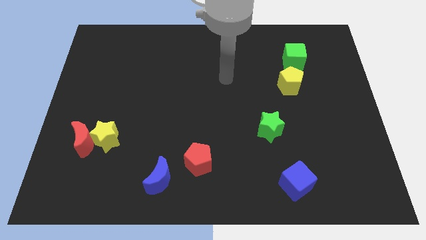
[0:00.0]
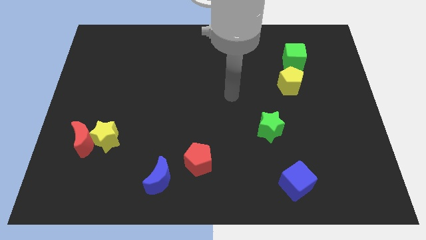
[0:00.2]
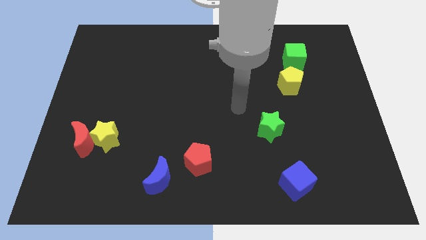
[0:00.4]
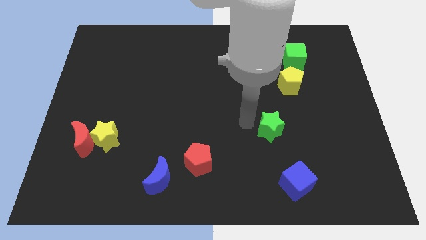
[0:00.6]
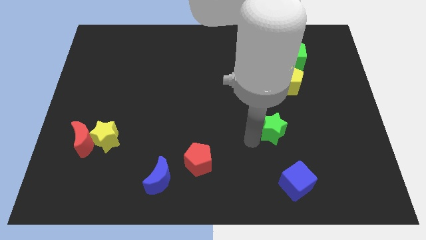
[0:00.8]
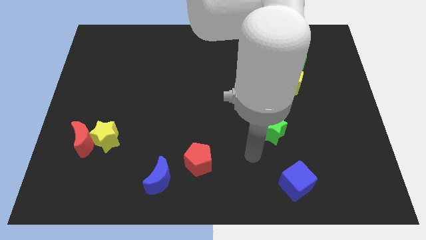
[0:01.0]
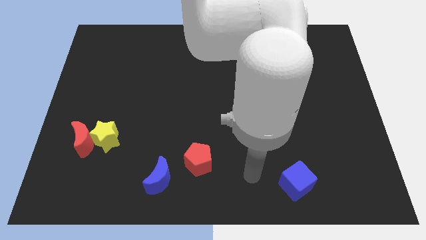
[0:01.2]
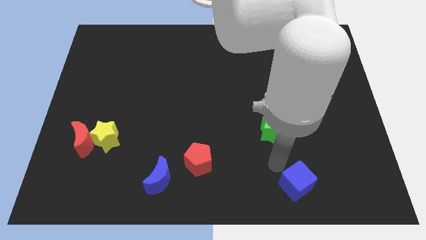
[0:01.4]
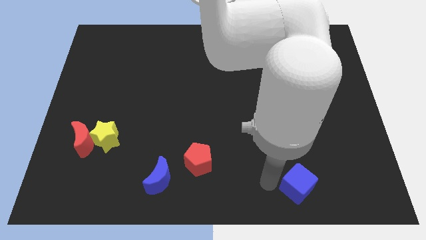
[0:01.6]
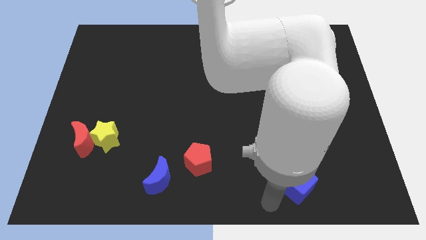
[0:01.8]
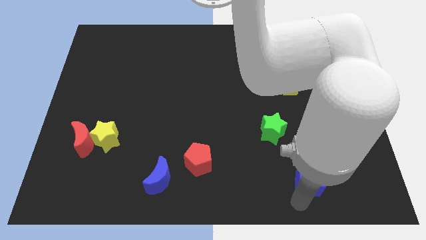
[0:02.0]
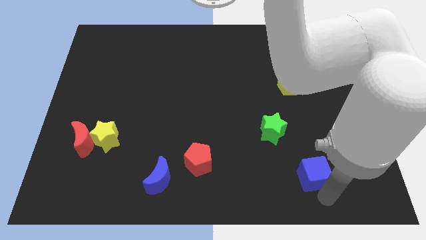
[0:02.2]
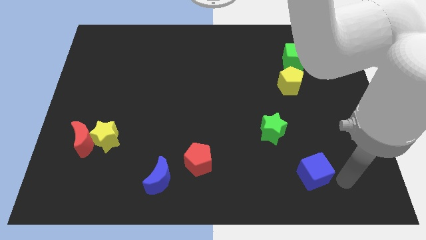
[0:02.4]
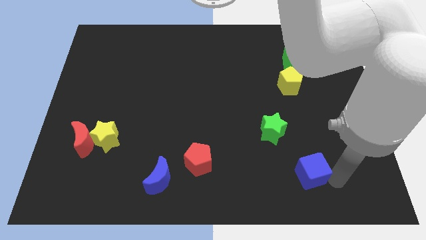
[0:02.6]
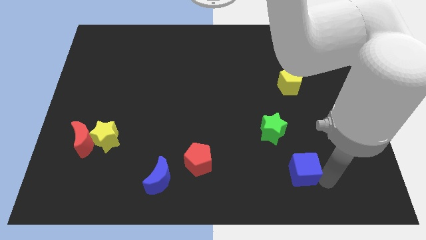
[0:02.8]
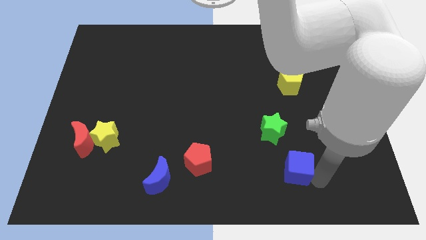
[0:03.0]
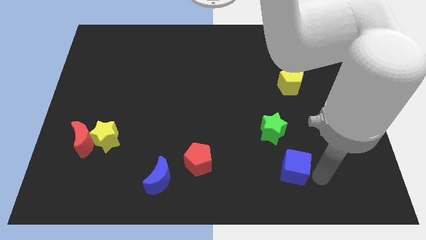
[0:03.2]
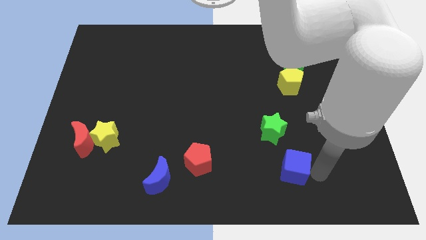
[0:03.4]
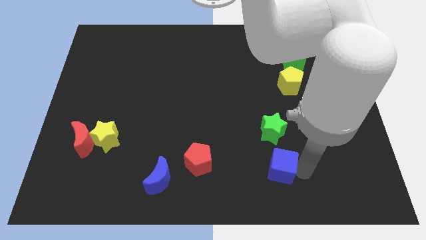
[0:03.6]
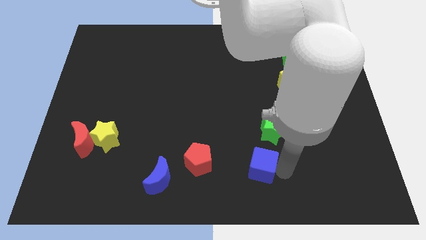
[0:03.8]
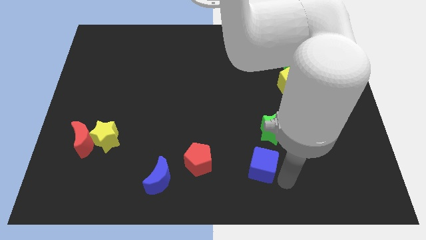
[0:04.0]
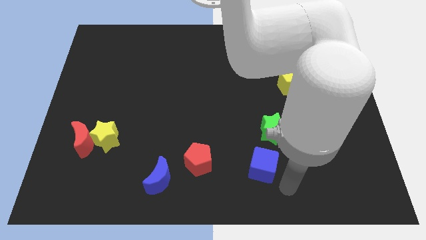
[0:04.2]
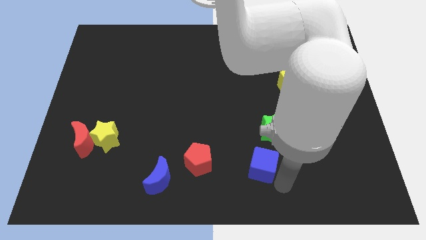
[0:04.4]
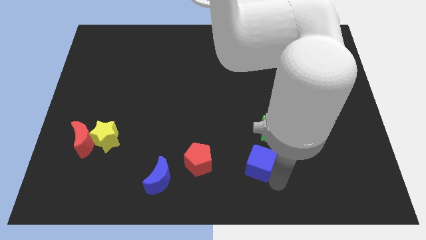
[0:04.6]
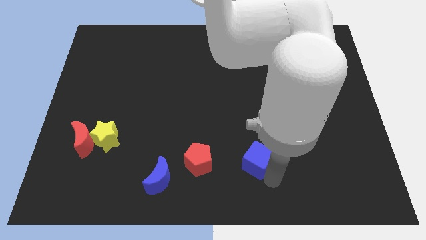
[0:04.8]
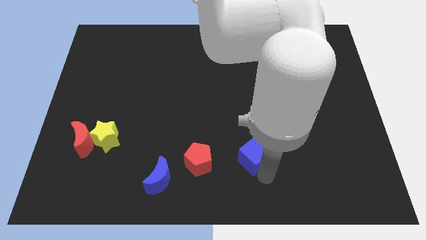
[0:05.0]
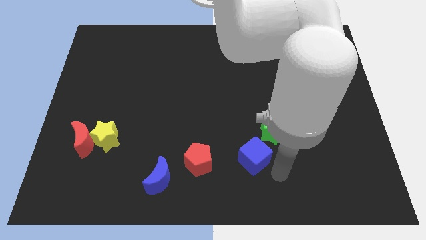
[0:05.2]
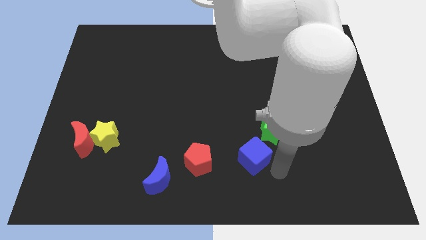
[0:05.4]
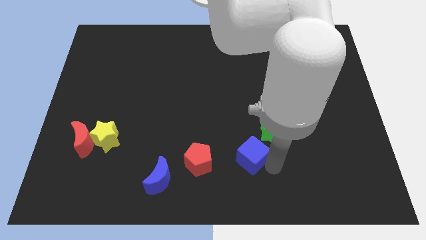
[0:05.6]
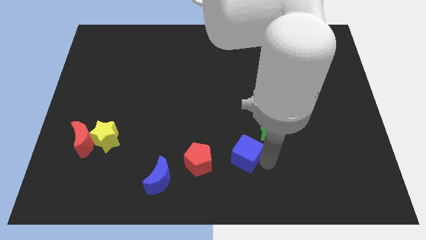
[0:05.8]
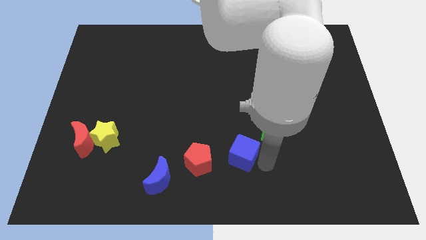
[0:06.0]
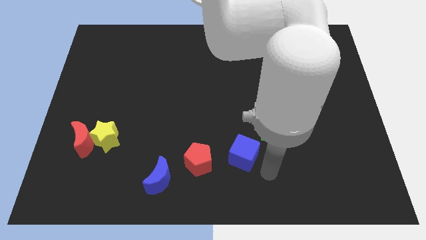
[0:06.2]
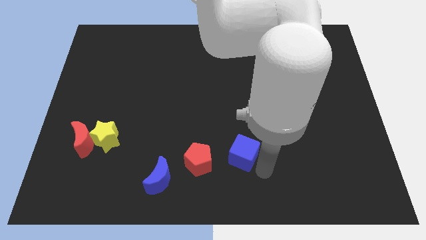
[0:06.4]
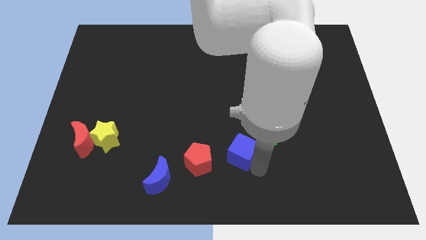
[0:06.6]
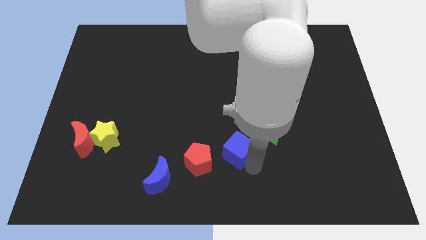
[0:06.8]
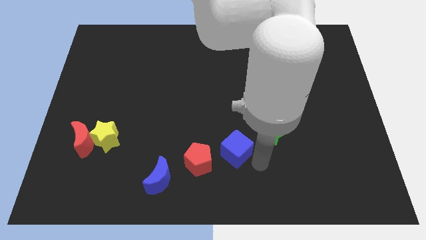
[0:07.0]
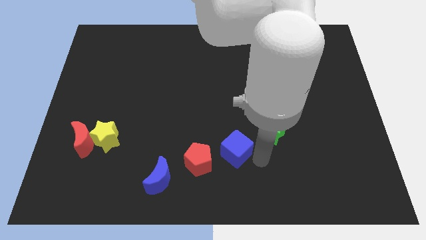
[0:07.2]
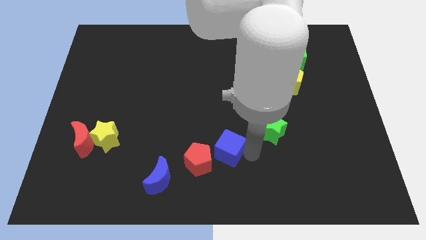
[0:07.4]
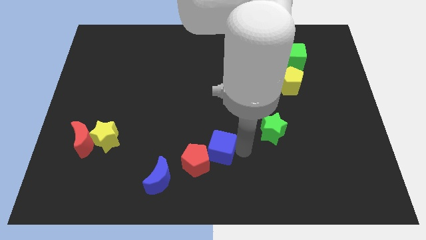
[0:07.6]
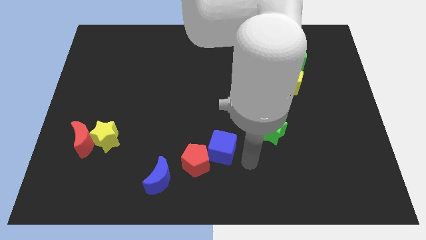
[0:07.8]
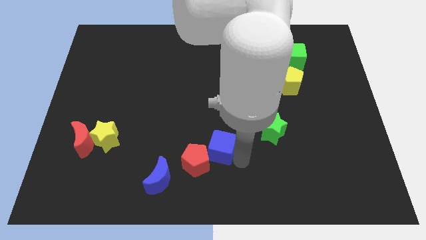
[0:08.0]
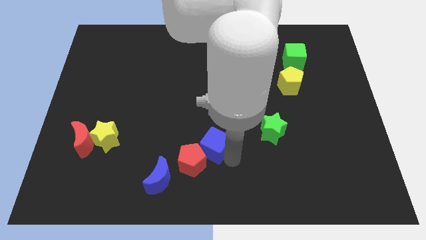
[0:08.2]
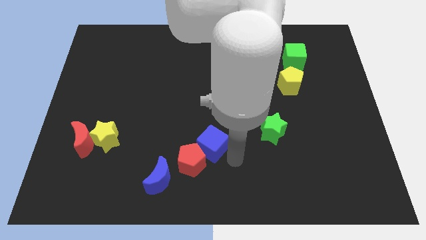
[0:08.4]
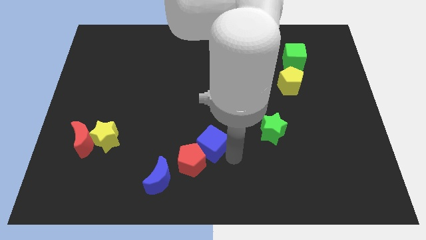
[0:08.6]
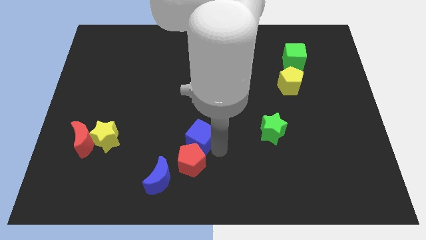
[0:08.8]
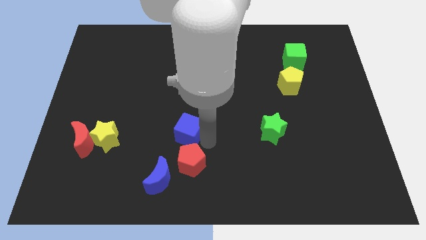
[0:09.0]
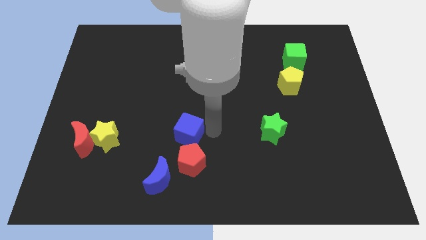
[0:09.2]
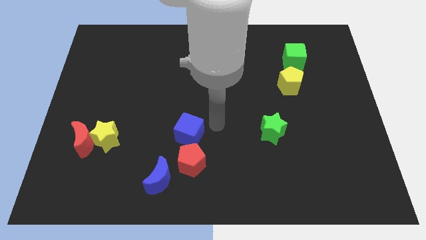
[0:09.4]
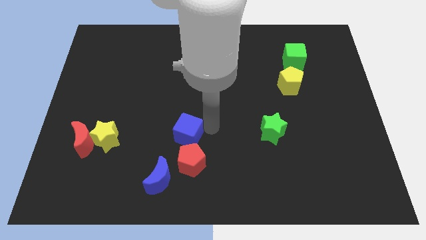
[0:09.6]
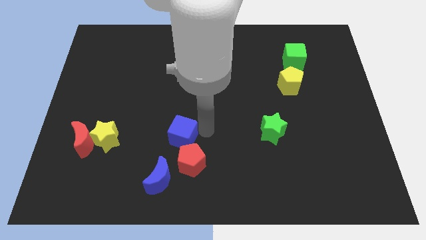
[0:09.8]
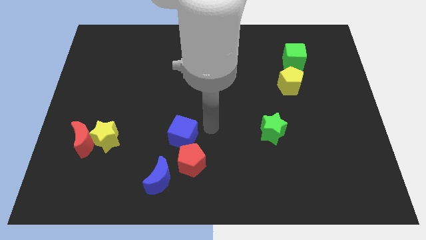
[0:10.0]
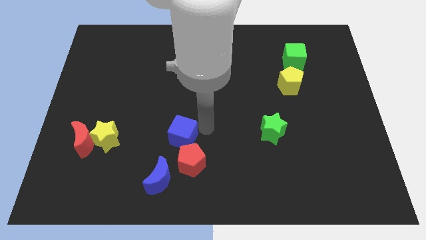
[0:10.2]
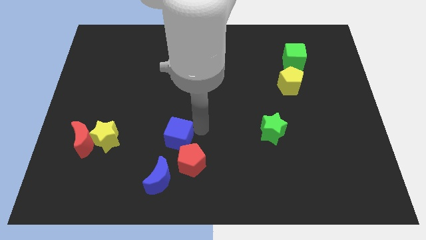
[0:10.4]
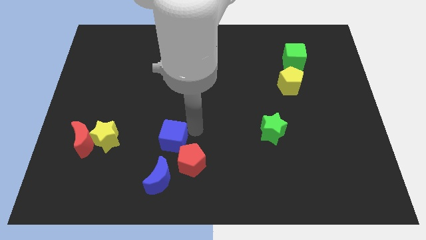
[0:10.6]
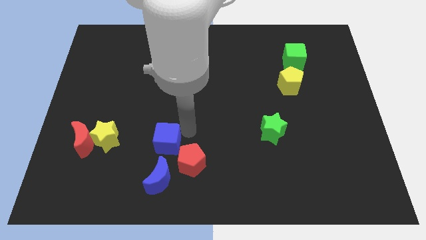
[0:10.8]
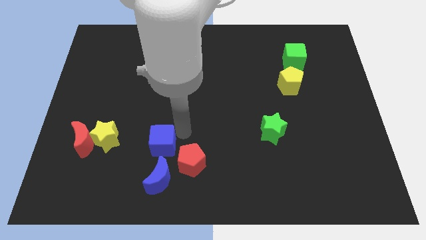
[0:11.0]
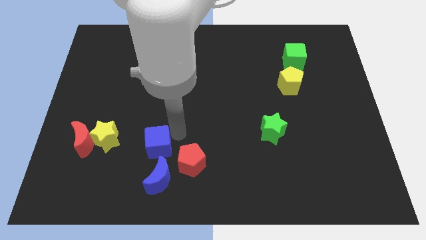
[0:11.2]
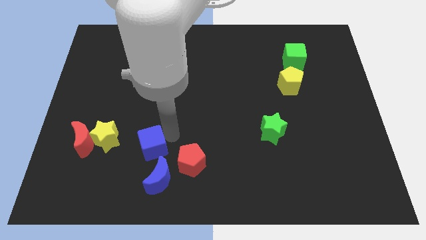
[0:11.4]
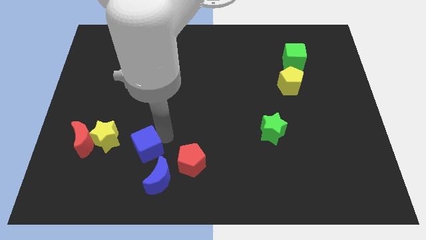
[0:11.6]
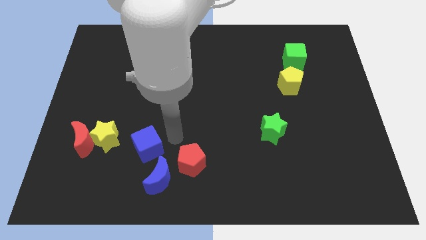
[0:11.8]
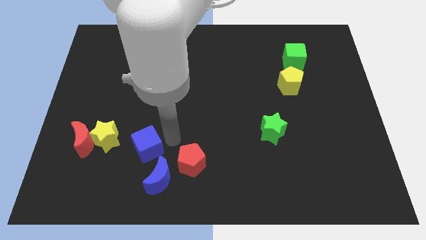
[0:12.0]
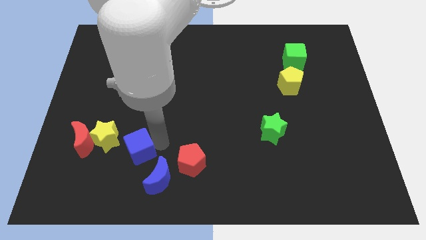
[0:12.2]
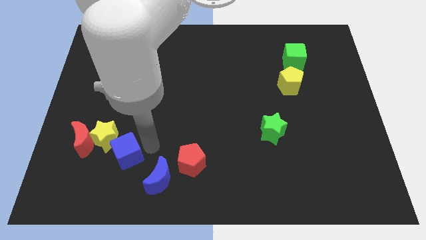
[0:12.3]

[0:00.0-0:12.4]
move the blue cube diagonally down and to the right of the red moon

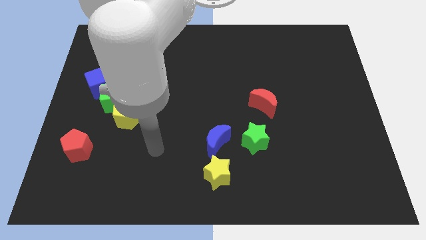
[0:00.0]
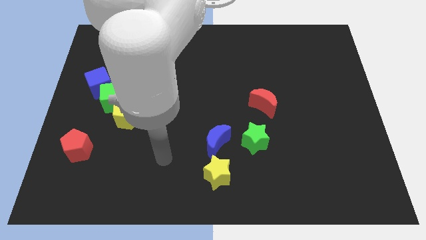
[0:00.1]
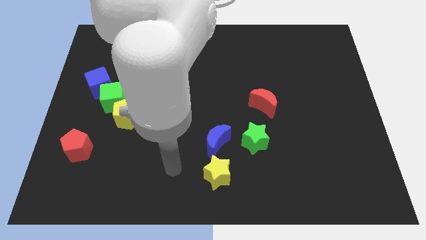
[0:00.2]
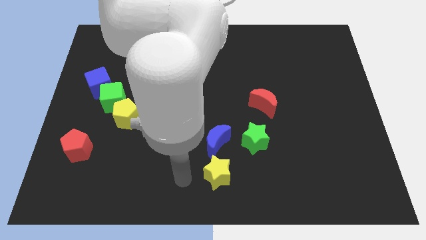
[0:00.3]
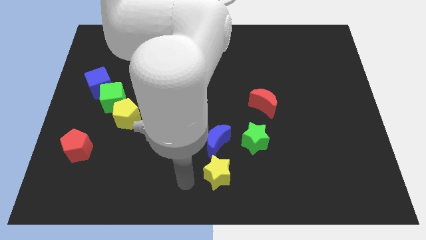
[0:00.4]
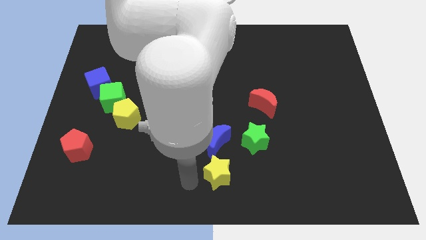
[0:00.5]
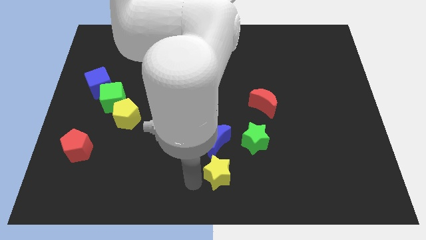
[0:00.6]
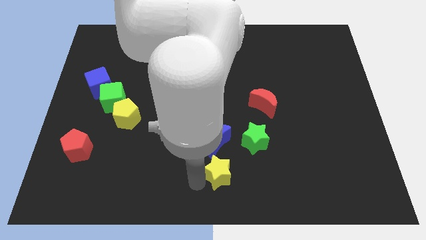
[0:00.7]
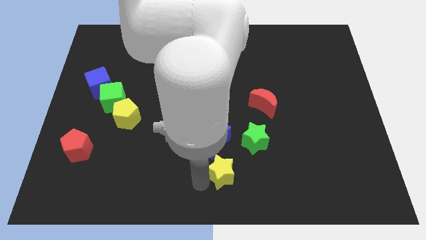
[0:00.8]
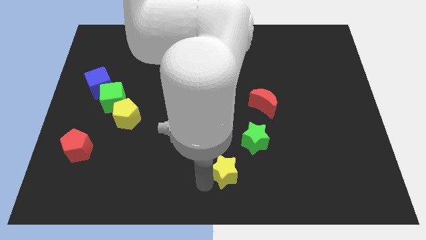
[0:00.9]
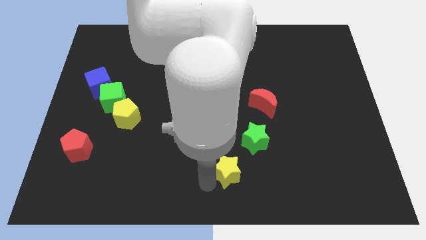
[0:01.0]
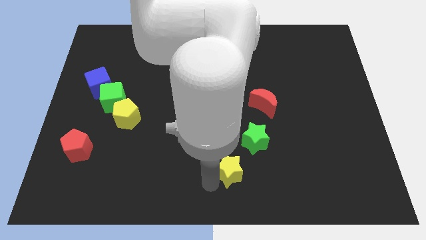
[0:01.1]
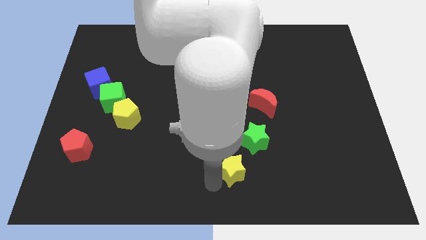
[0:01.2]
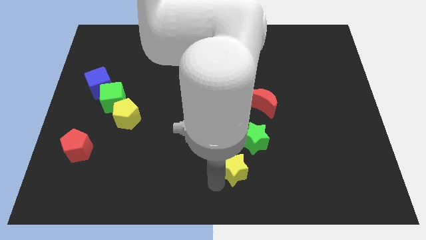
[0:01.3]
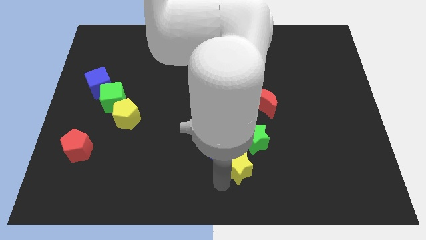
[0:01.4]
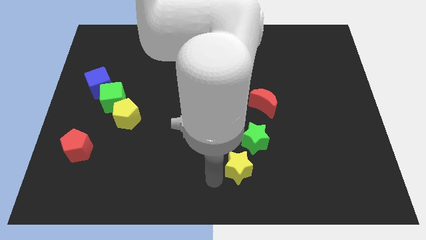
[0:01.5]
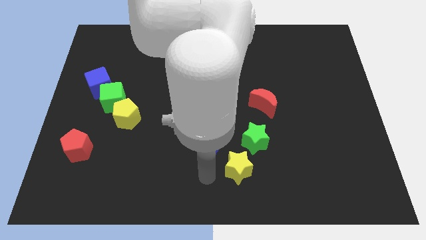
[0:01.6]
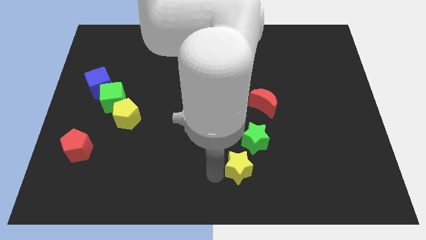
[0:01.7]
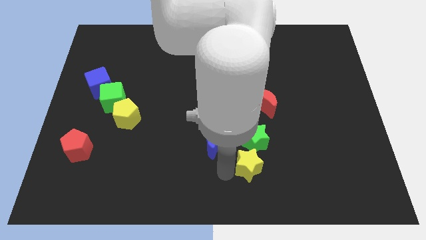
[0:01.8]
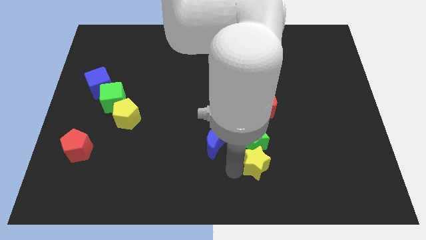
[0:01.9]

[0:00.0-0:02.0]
move the yellow star diagonally down and to the right of the green star
